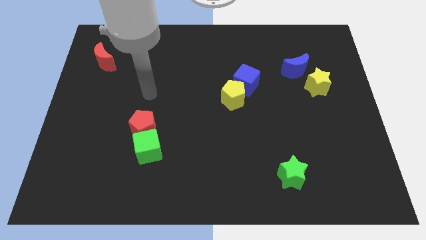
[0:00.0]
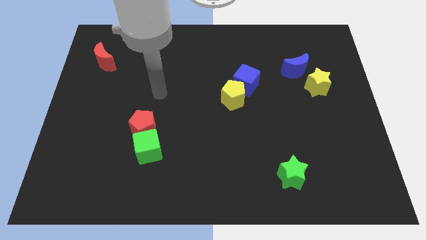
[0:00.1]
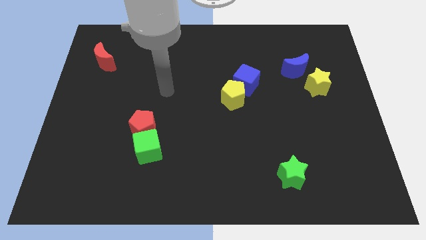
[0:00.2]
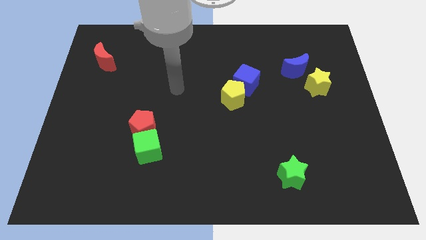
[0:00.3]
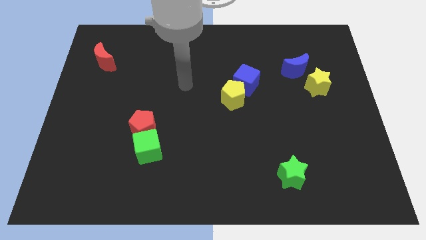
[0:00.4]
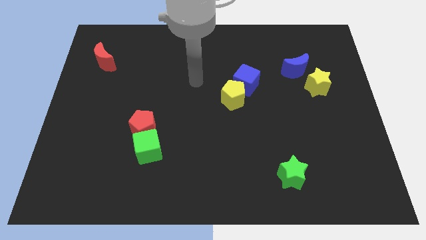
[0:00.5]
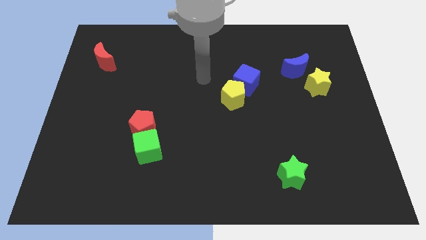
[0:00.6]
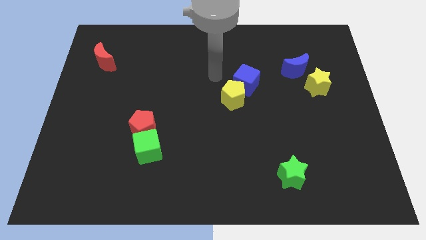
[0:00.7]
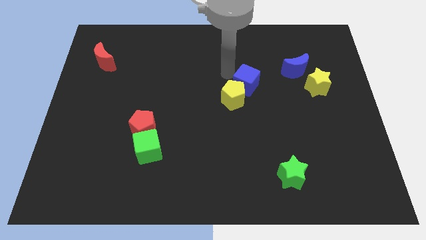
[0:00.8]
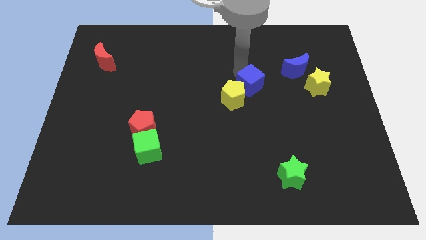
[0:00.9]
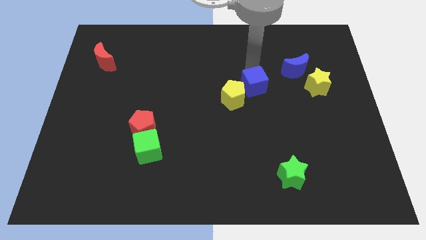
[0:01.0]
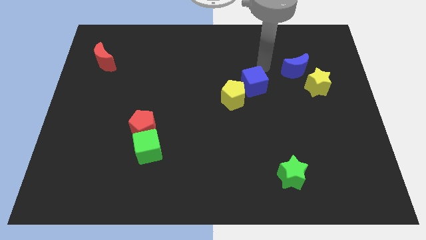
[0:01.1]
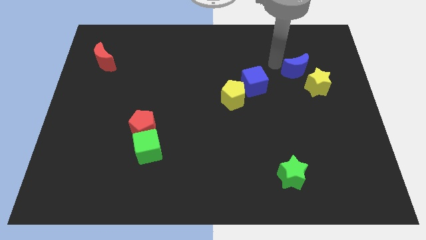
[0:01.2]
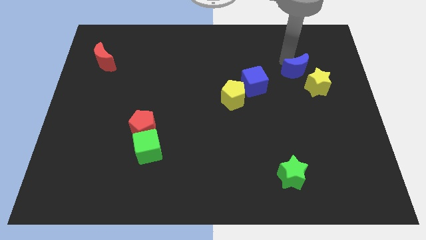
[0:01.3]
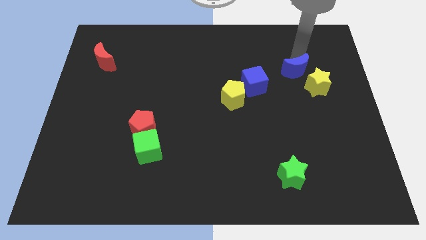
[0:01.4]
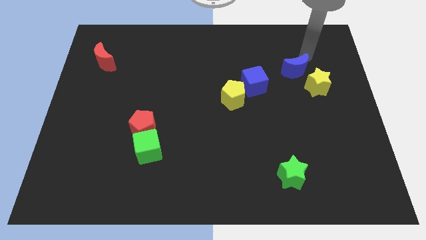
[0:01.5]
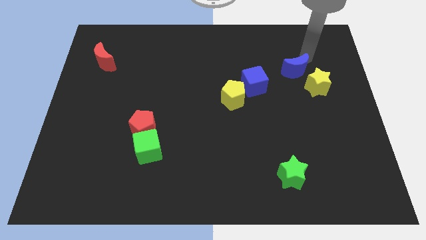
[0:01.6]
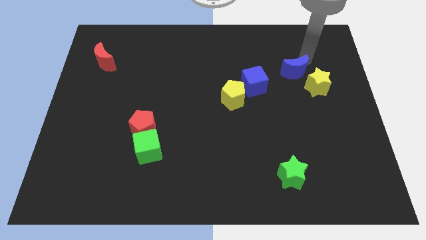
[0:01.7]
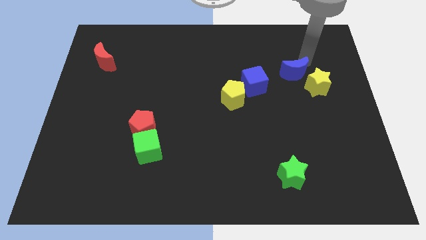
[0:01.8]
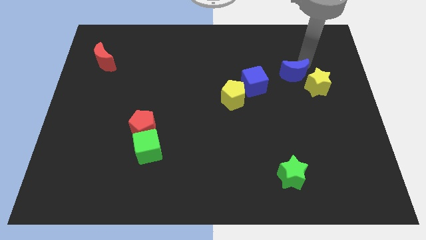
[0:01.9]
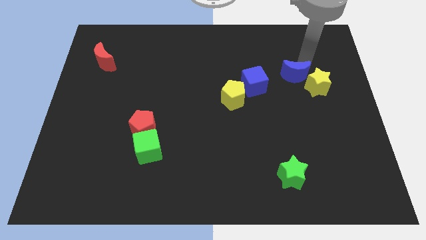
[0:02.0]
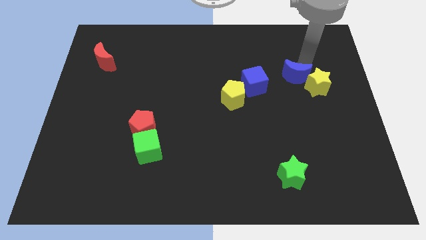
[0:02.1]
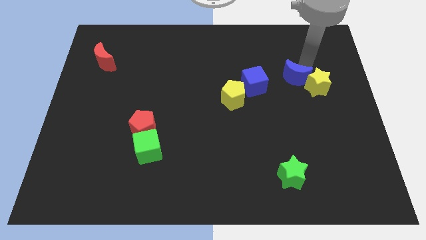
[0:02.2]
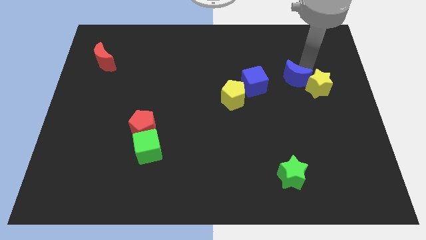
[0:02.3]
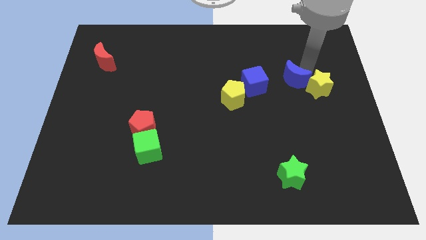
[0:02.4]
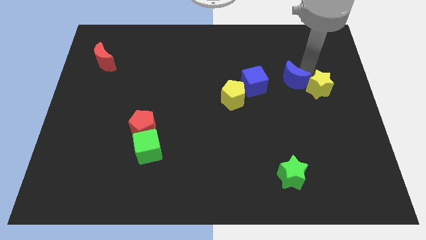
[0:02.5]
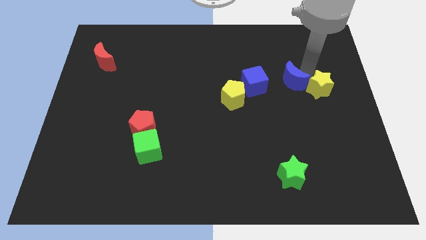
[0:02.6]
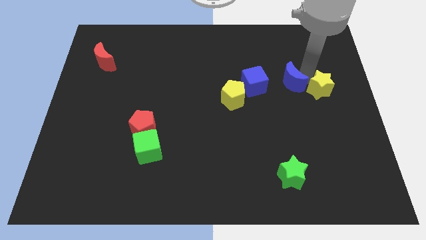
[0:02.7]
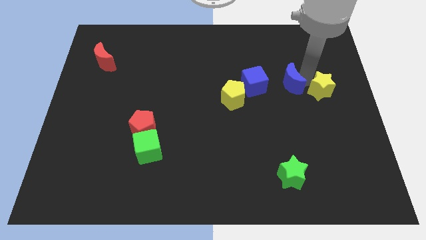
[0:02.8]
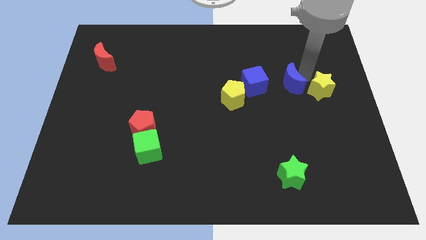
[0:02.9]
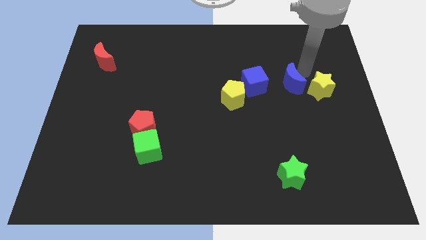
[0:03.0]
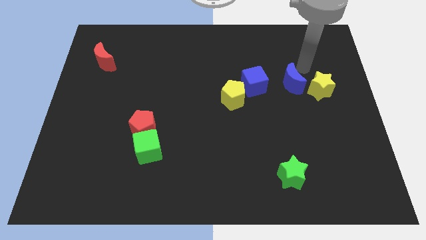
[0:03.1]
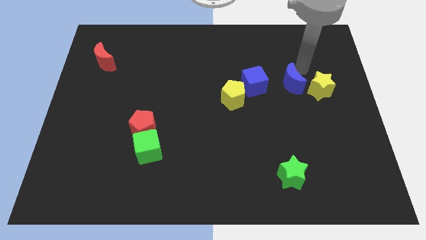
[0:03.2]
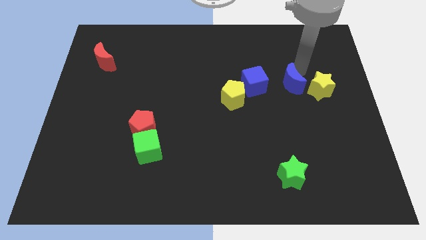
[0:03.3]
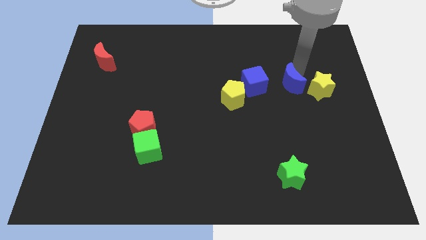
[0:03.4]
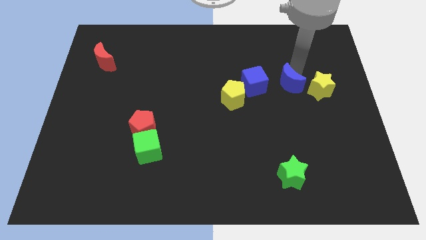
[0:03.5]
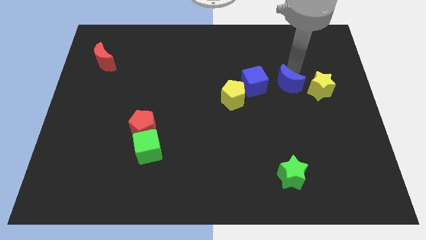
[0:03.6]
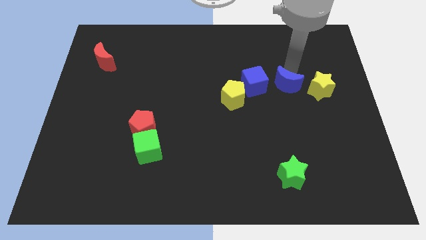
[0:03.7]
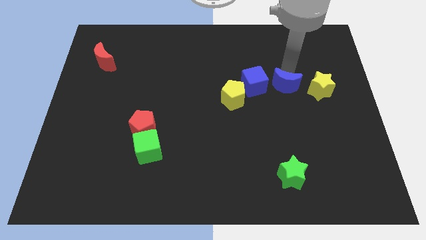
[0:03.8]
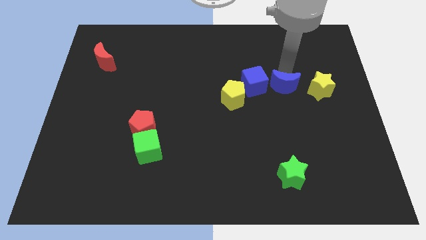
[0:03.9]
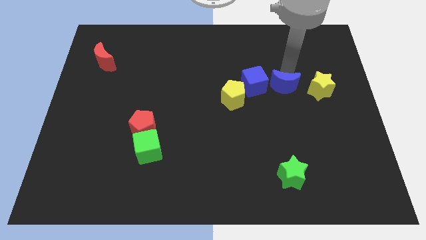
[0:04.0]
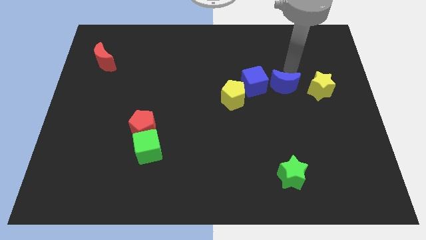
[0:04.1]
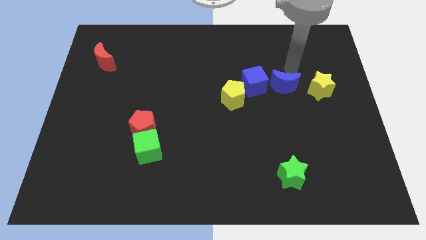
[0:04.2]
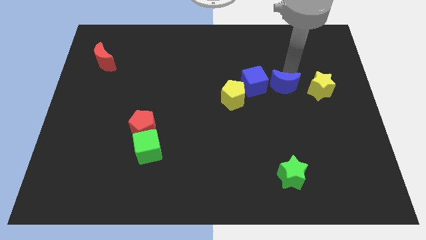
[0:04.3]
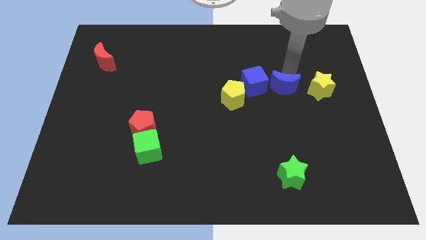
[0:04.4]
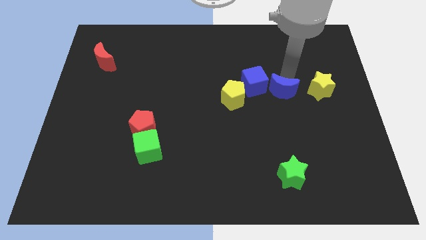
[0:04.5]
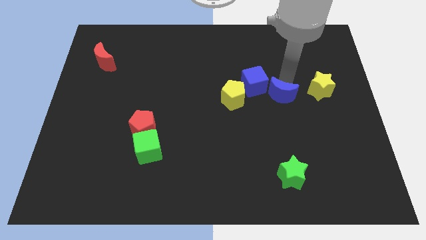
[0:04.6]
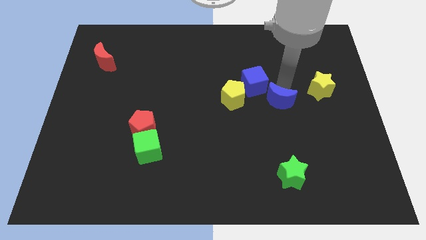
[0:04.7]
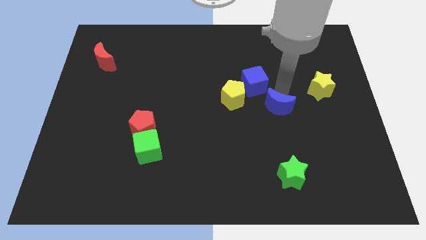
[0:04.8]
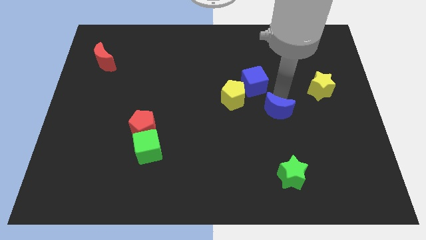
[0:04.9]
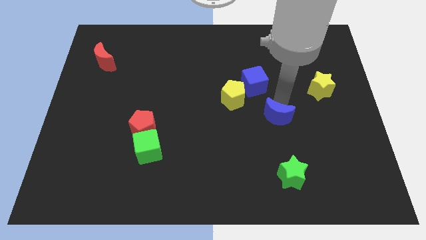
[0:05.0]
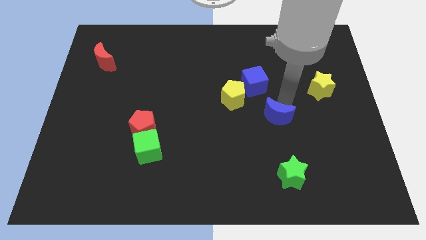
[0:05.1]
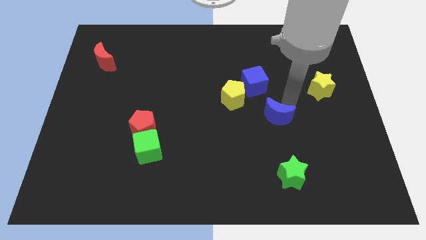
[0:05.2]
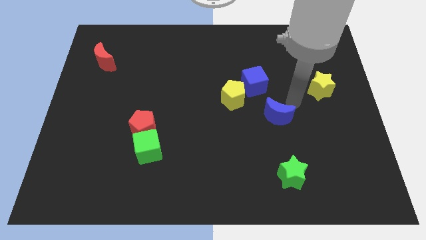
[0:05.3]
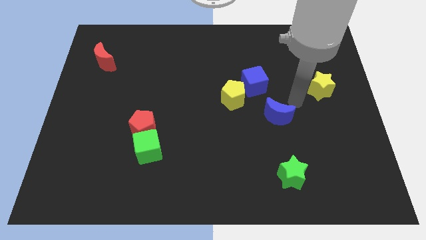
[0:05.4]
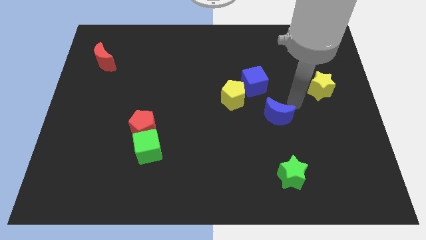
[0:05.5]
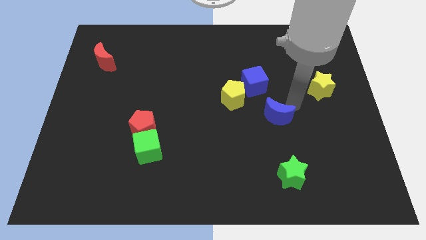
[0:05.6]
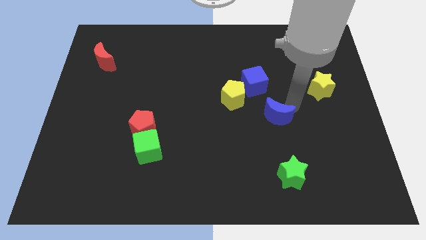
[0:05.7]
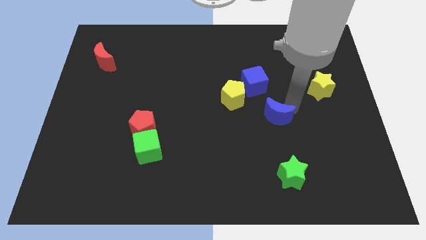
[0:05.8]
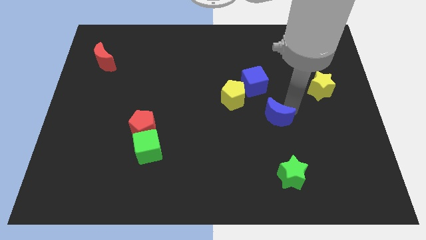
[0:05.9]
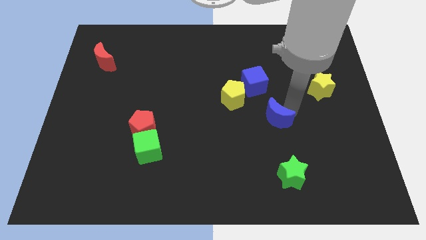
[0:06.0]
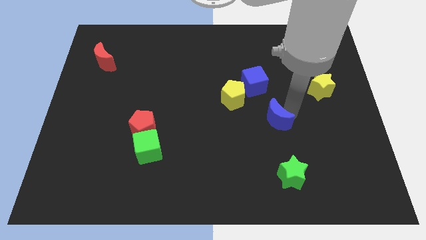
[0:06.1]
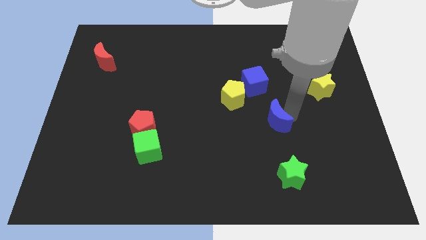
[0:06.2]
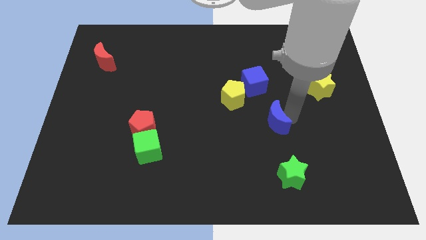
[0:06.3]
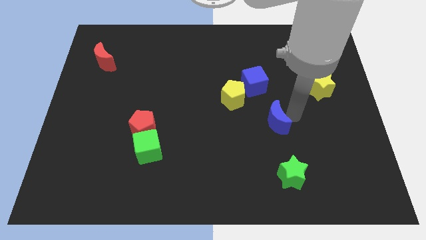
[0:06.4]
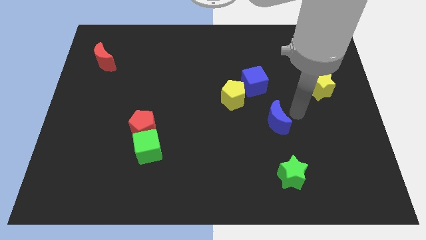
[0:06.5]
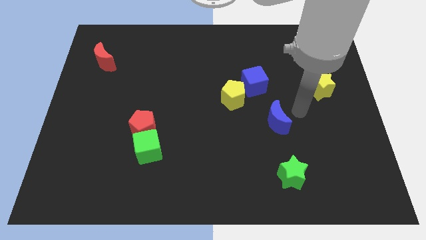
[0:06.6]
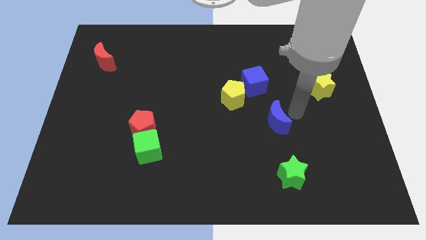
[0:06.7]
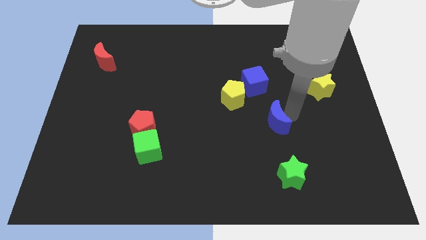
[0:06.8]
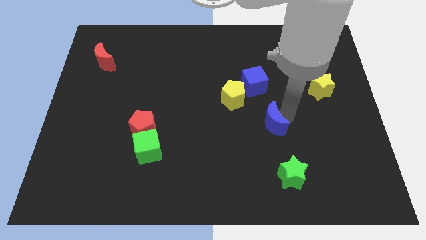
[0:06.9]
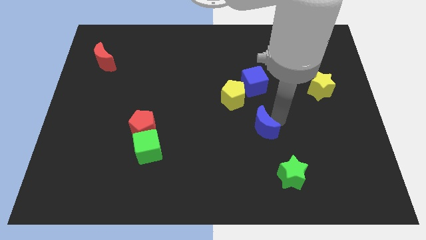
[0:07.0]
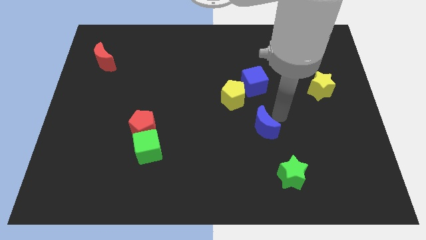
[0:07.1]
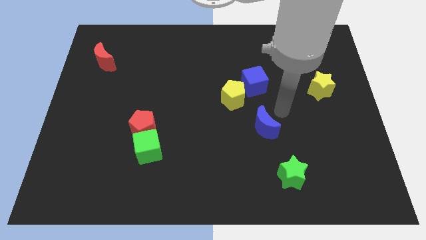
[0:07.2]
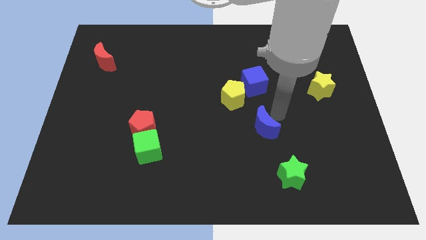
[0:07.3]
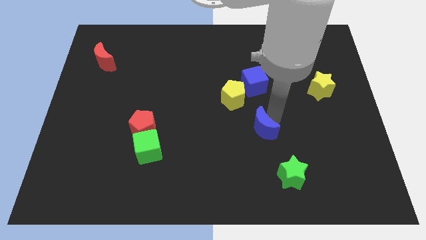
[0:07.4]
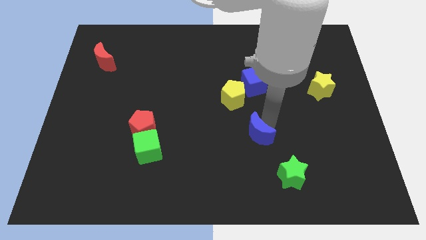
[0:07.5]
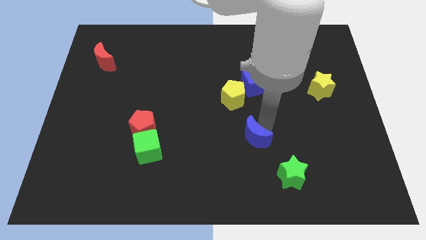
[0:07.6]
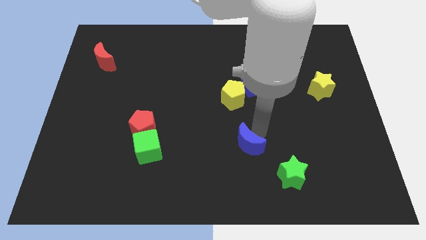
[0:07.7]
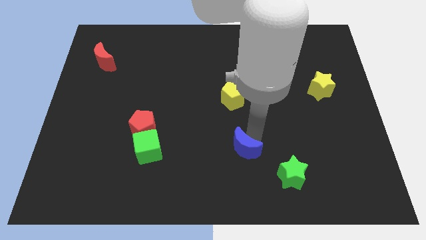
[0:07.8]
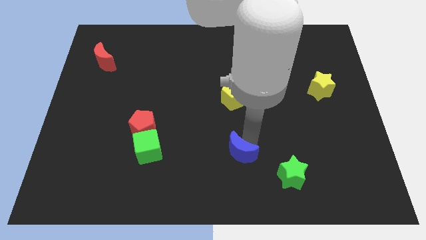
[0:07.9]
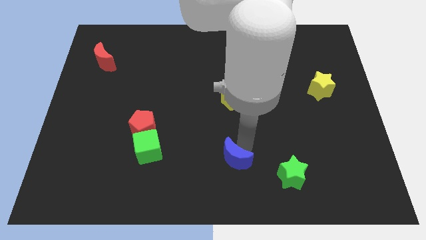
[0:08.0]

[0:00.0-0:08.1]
move the blue moon to the bottom
